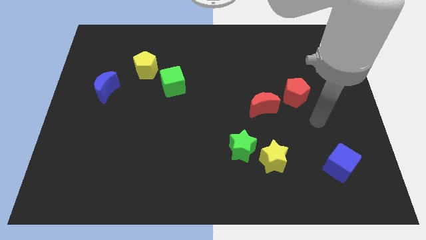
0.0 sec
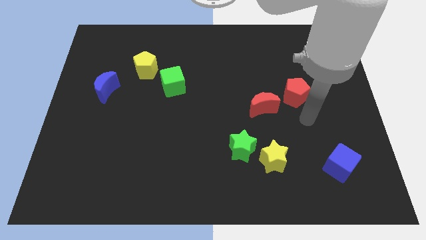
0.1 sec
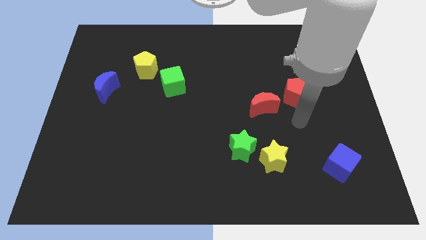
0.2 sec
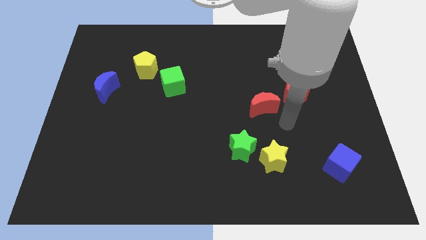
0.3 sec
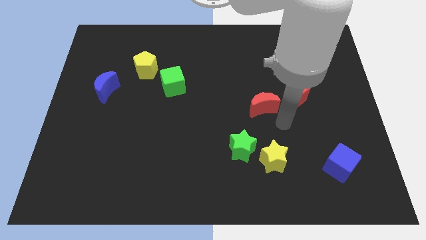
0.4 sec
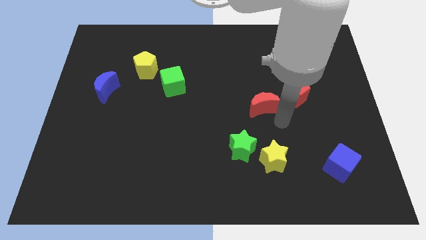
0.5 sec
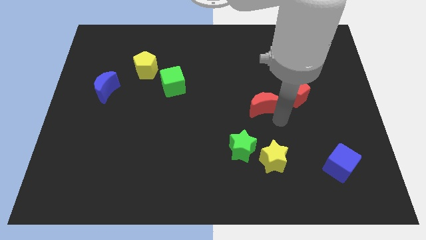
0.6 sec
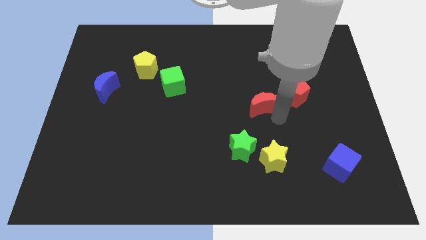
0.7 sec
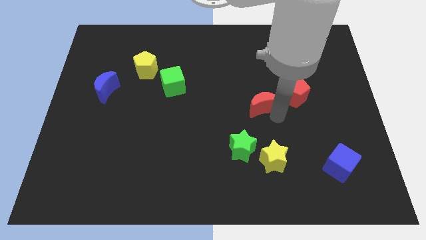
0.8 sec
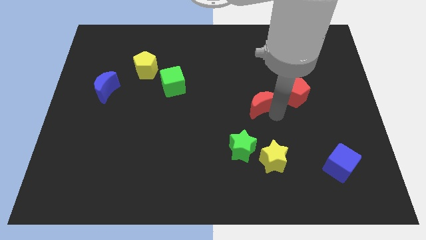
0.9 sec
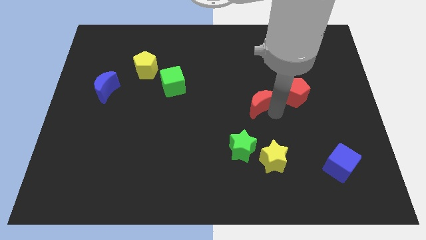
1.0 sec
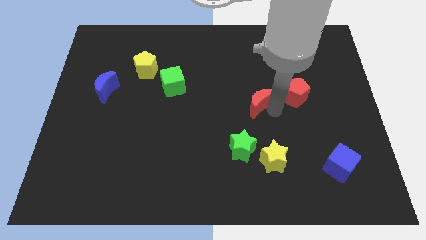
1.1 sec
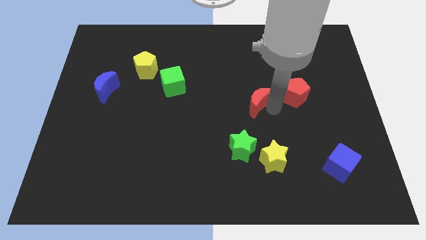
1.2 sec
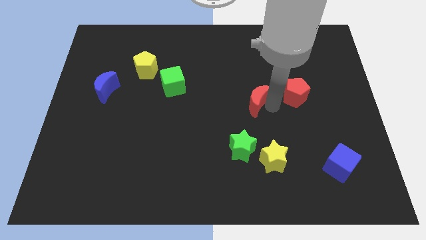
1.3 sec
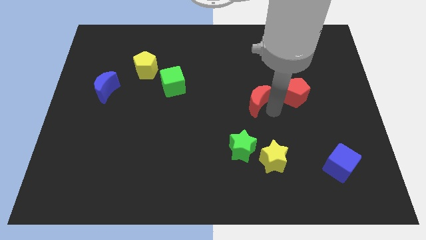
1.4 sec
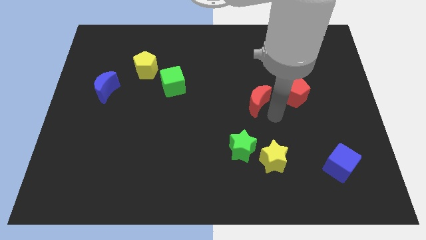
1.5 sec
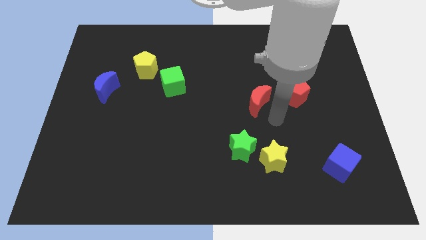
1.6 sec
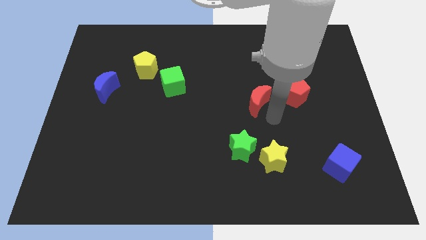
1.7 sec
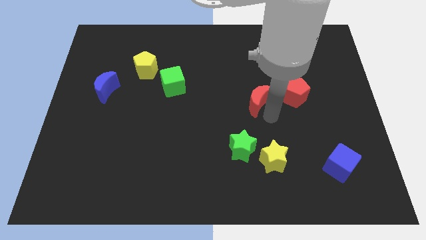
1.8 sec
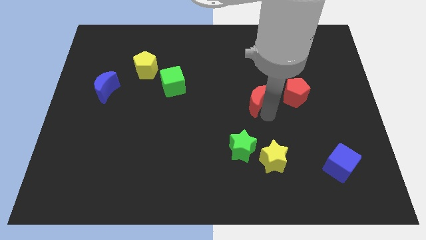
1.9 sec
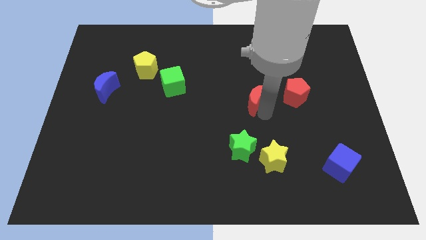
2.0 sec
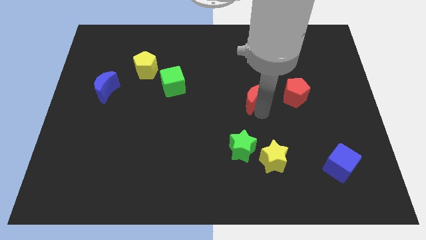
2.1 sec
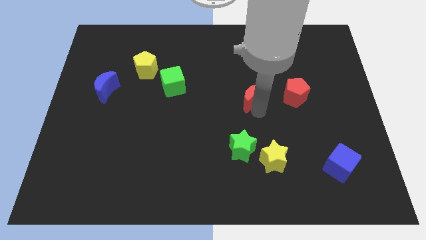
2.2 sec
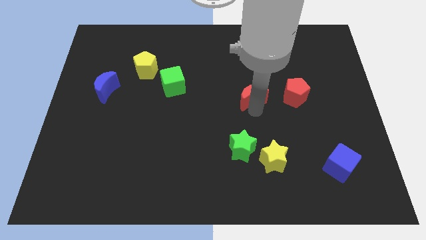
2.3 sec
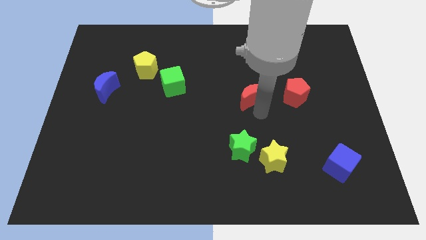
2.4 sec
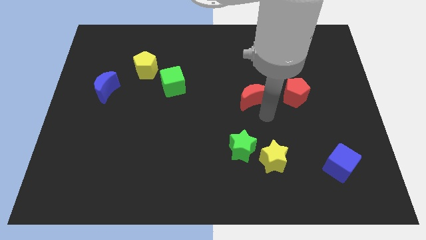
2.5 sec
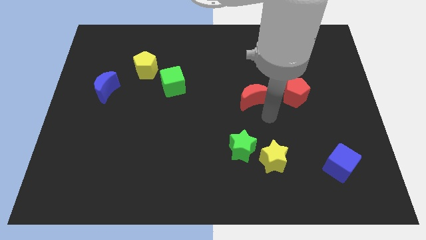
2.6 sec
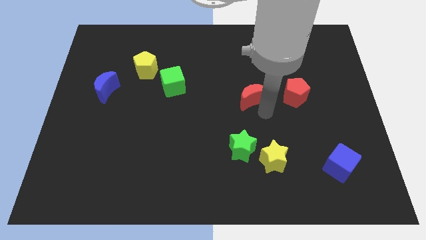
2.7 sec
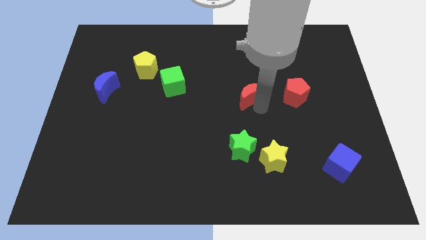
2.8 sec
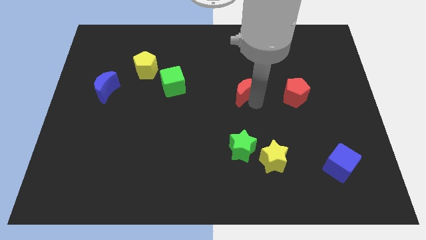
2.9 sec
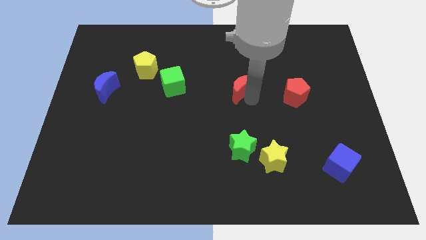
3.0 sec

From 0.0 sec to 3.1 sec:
slide the red moon a bit upwards and left

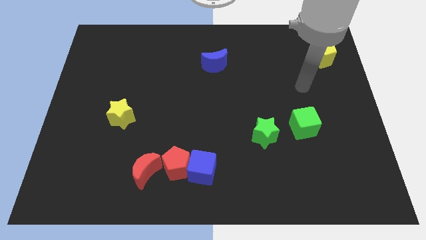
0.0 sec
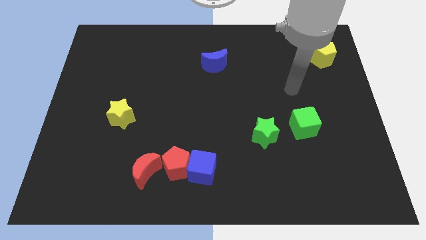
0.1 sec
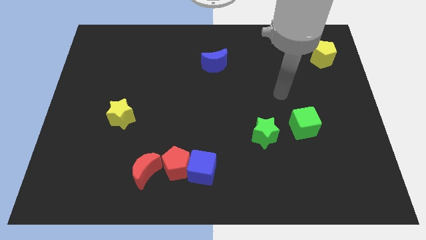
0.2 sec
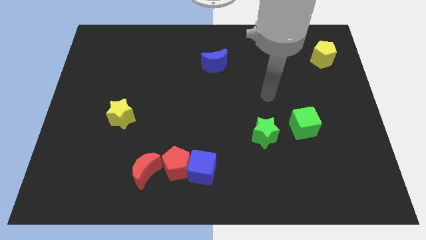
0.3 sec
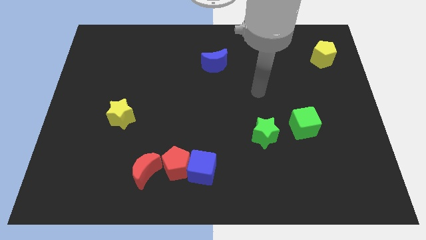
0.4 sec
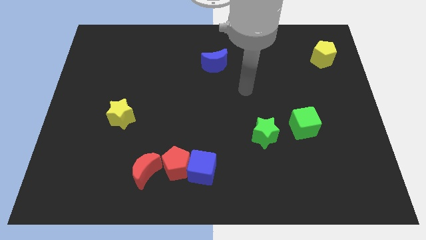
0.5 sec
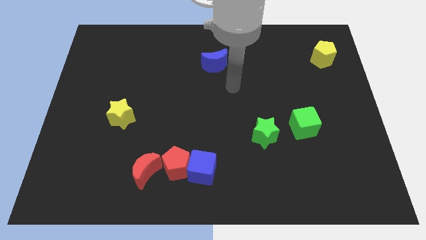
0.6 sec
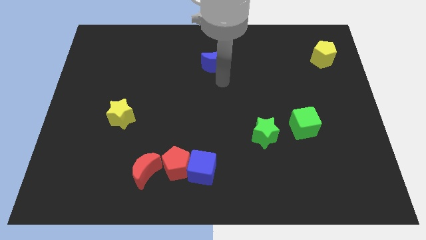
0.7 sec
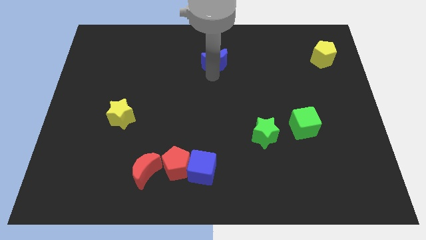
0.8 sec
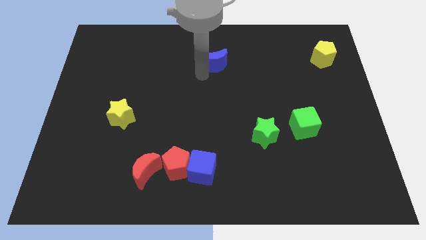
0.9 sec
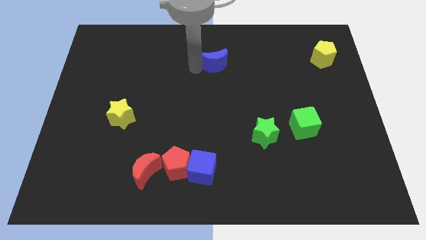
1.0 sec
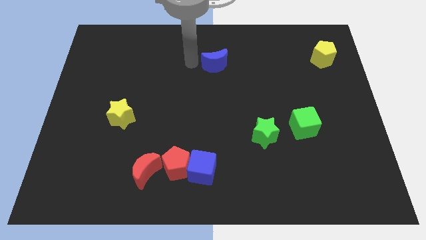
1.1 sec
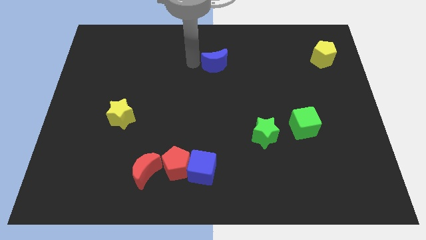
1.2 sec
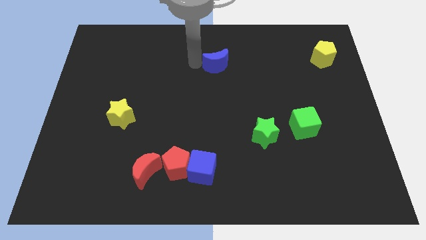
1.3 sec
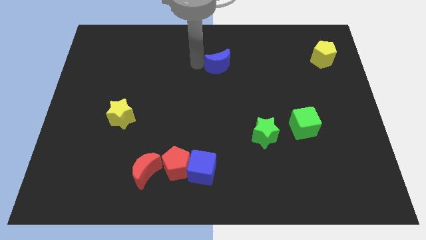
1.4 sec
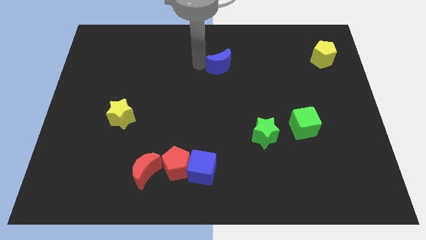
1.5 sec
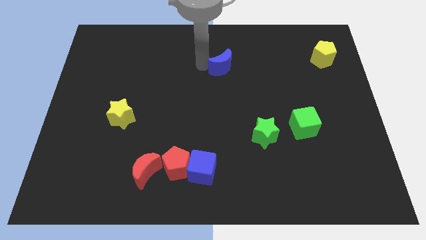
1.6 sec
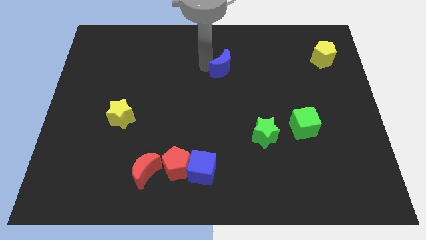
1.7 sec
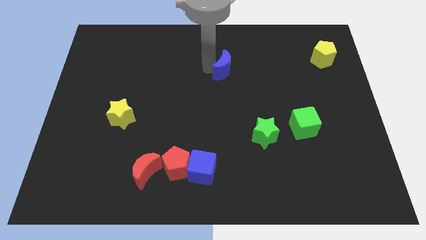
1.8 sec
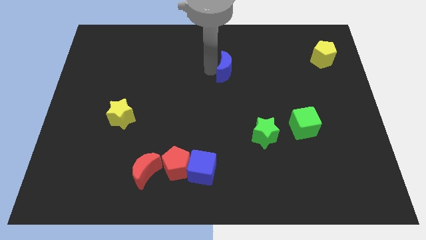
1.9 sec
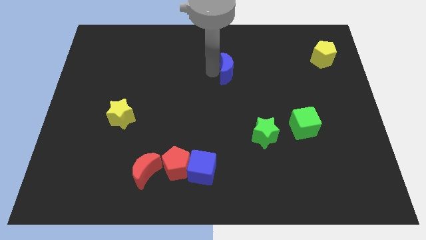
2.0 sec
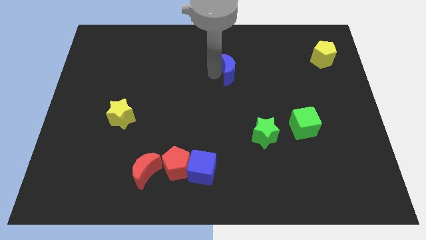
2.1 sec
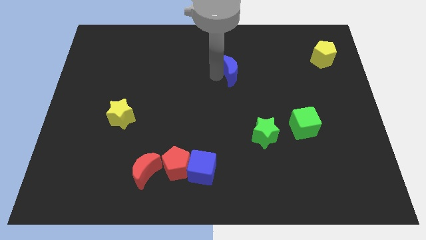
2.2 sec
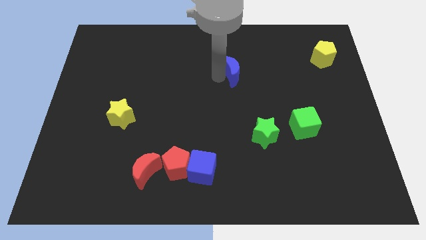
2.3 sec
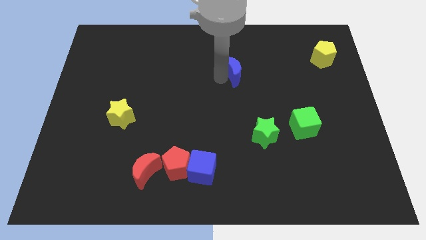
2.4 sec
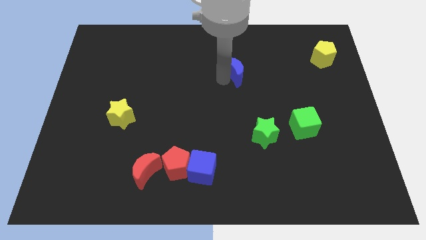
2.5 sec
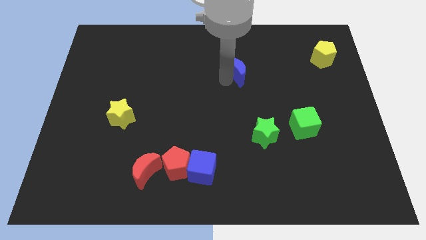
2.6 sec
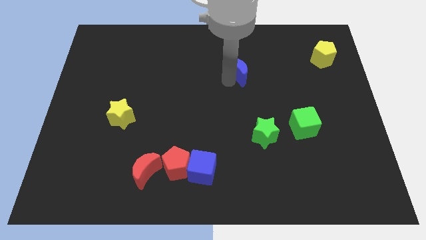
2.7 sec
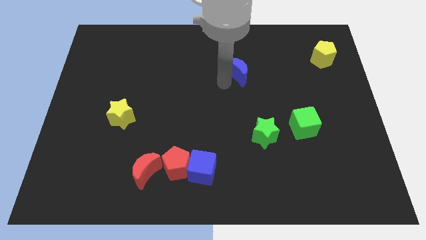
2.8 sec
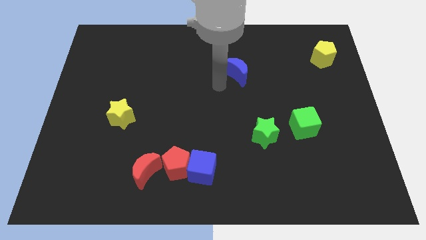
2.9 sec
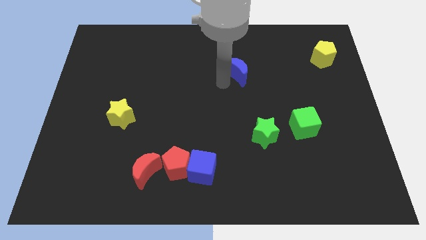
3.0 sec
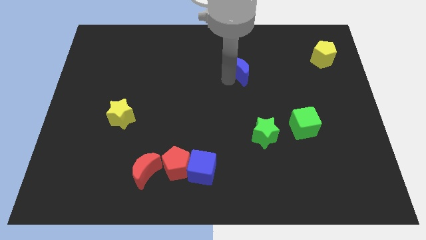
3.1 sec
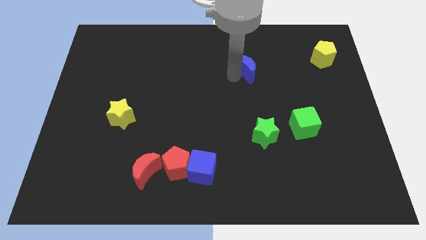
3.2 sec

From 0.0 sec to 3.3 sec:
slide the blue moon a bit right

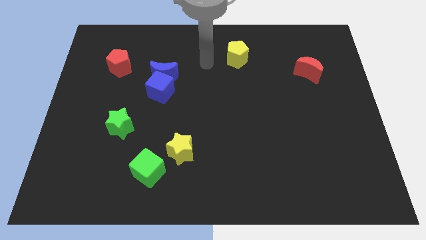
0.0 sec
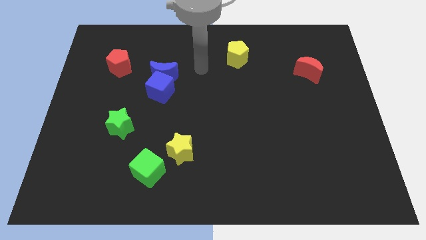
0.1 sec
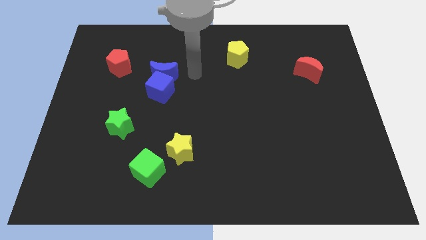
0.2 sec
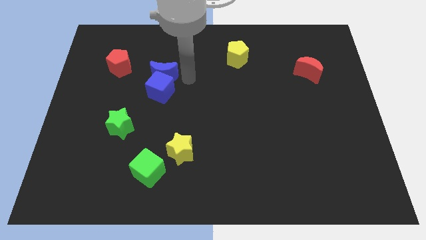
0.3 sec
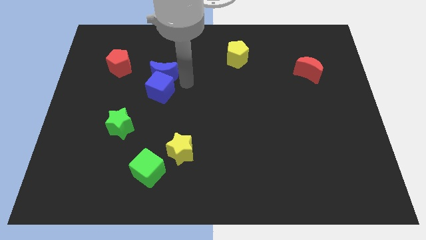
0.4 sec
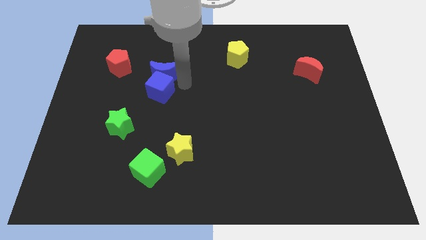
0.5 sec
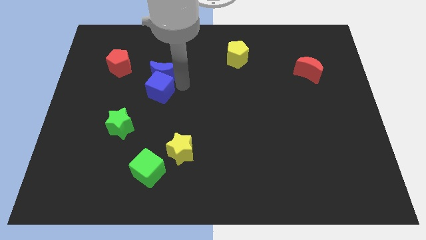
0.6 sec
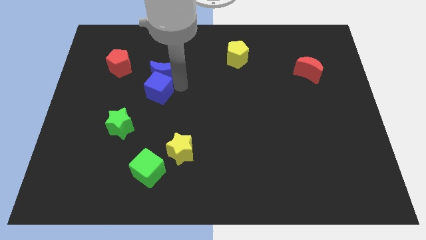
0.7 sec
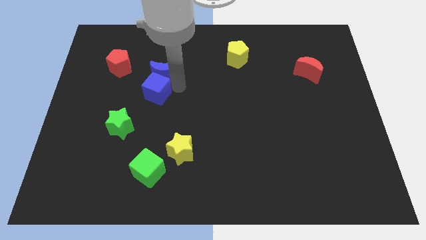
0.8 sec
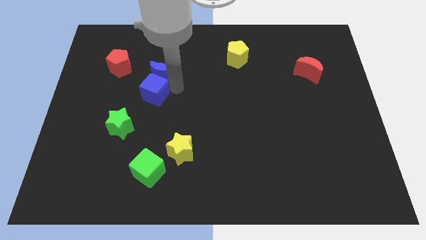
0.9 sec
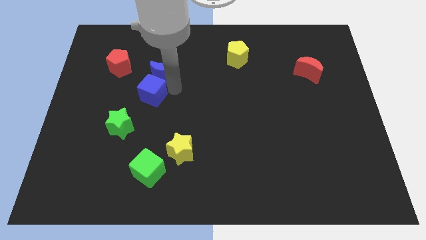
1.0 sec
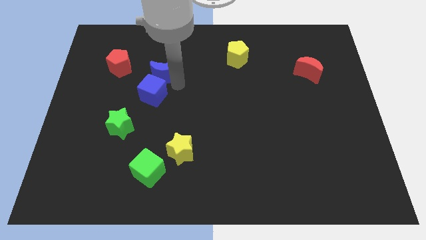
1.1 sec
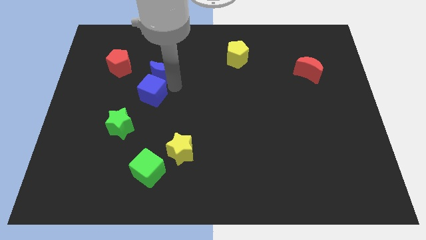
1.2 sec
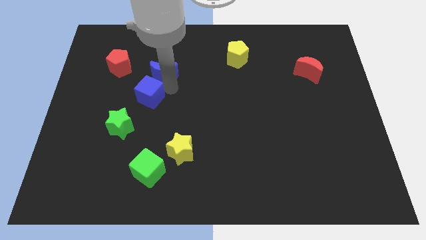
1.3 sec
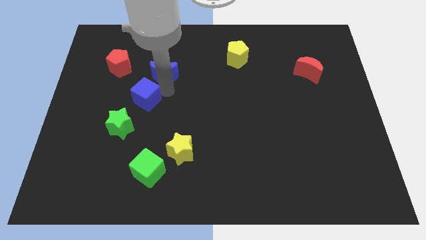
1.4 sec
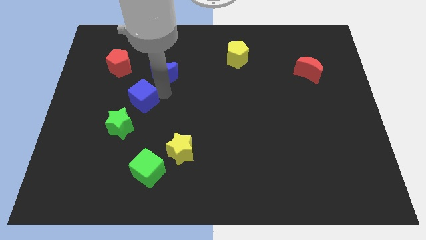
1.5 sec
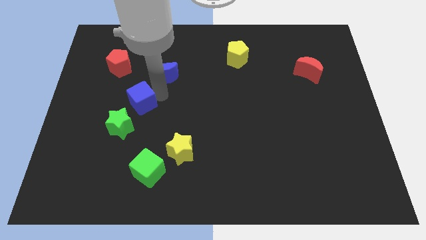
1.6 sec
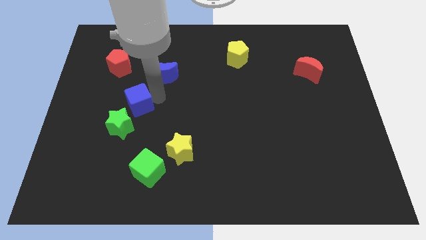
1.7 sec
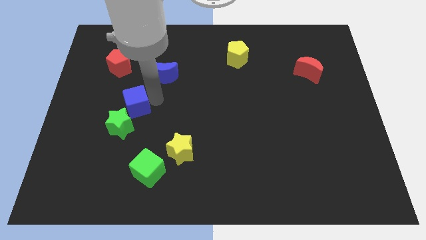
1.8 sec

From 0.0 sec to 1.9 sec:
push the blue cube somewhat downwards and to the left diagonally

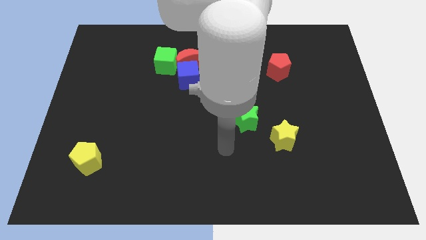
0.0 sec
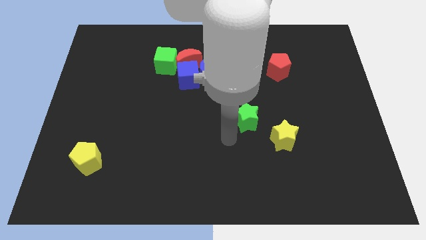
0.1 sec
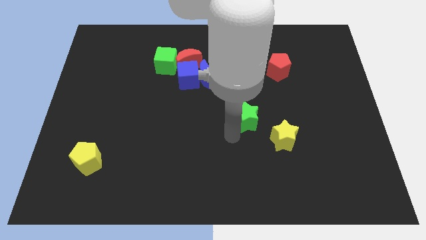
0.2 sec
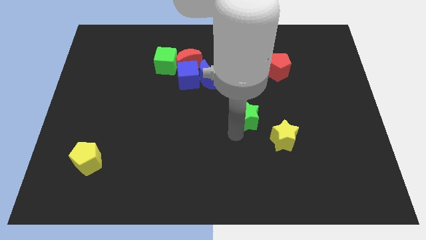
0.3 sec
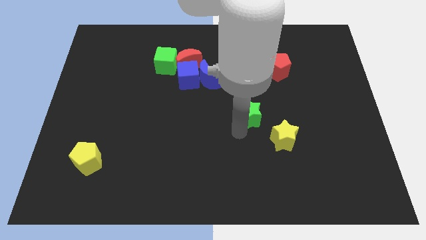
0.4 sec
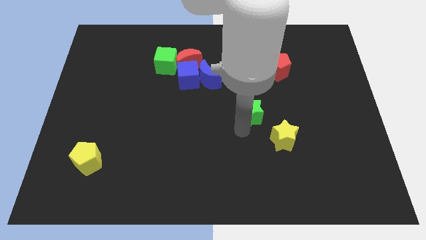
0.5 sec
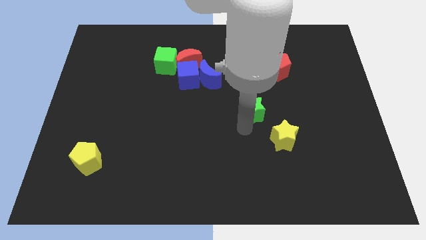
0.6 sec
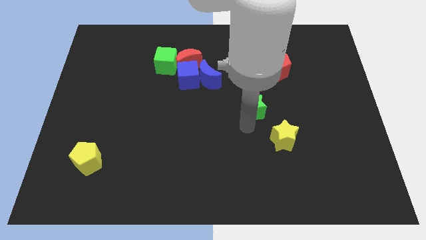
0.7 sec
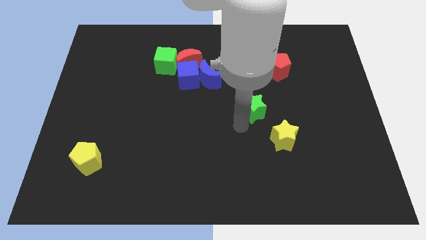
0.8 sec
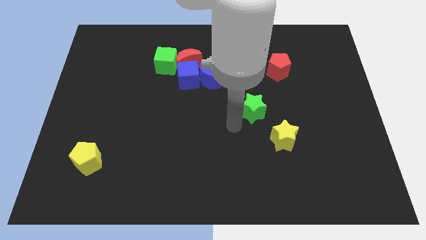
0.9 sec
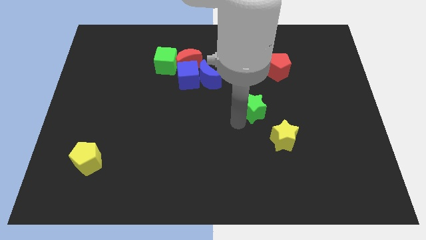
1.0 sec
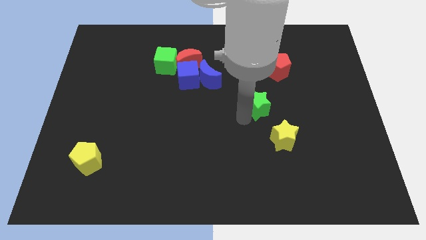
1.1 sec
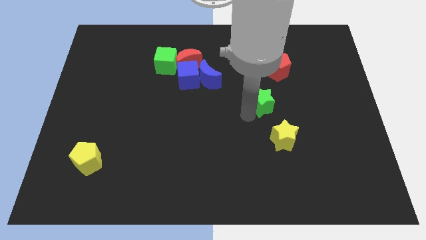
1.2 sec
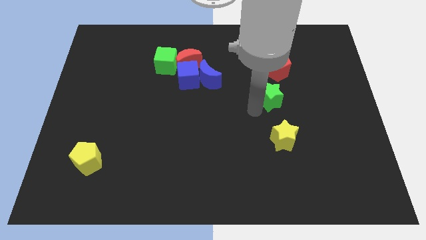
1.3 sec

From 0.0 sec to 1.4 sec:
slightly push the green star up and then to the right
